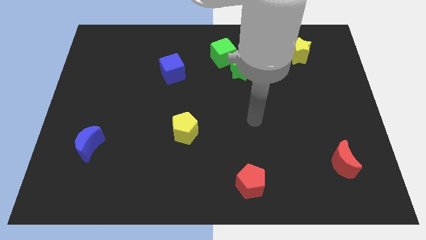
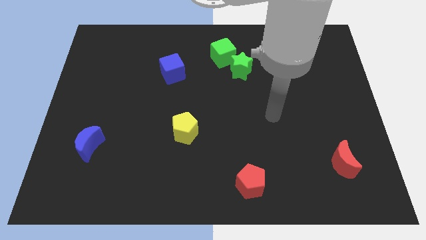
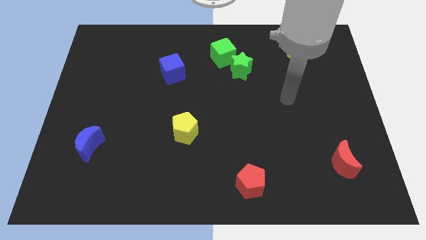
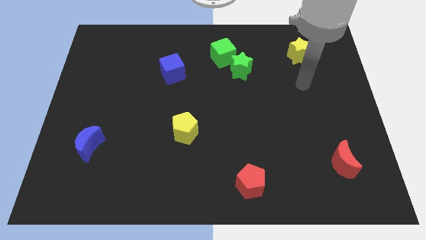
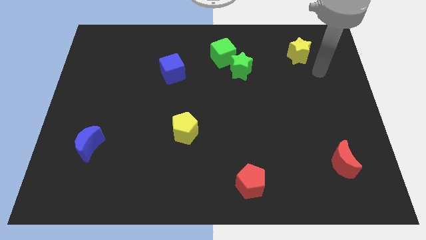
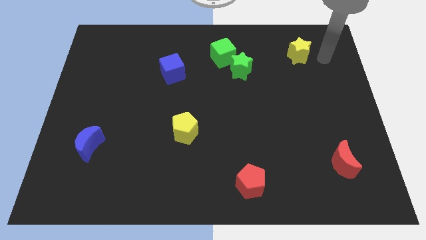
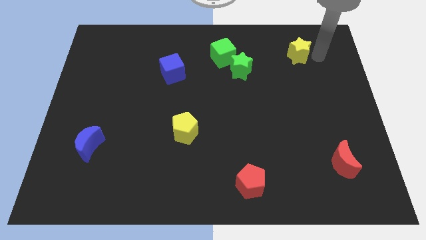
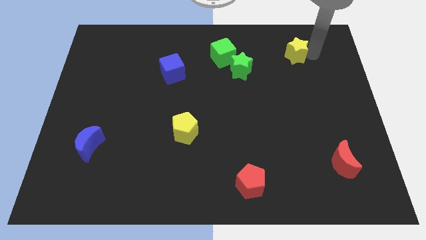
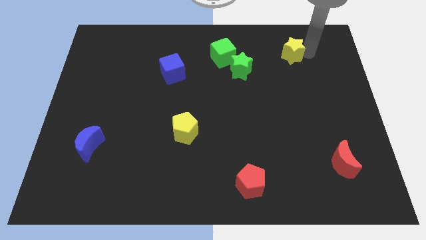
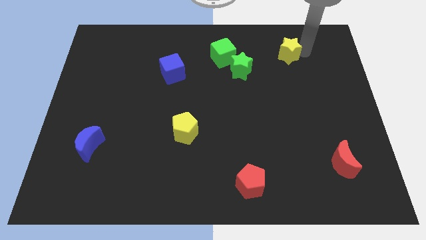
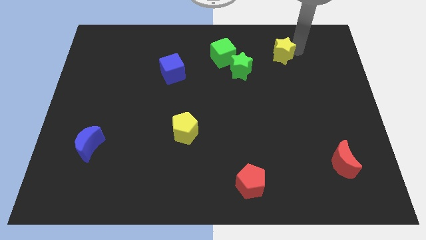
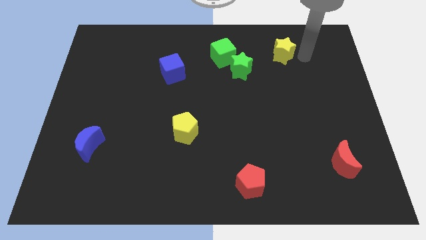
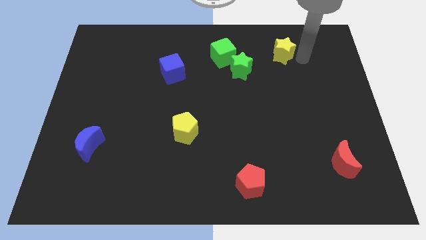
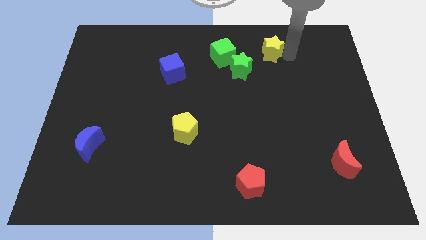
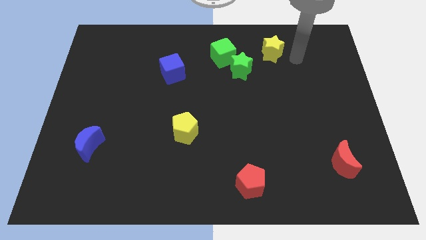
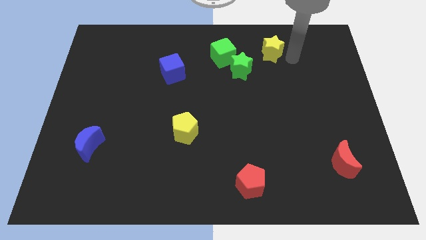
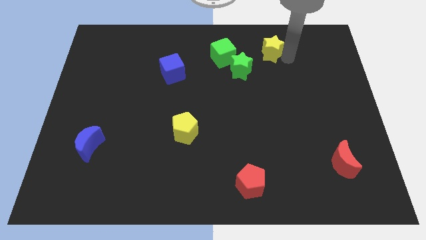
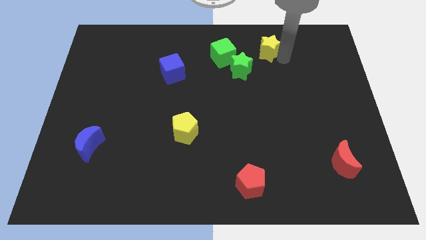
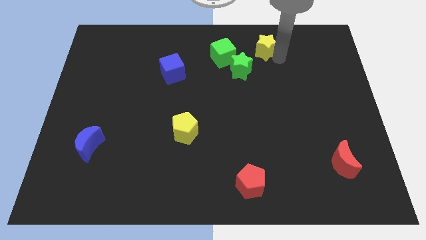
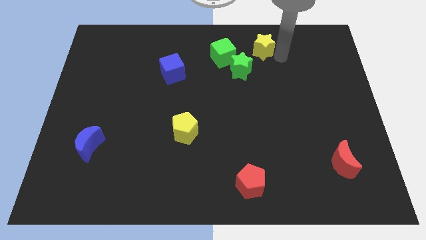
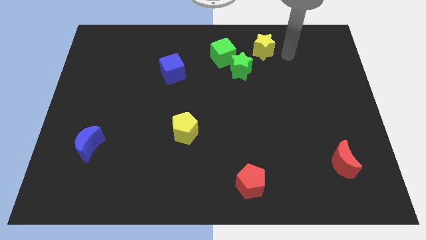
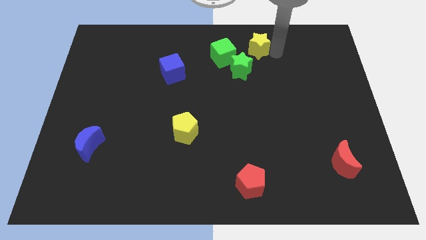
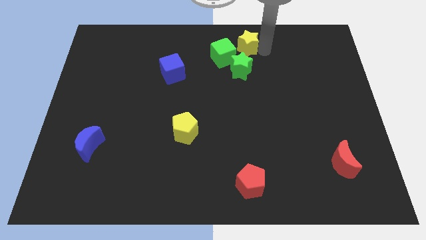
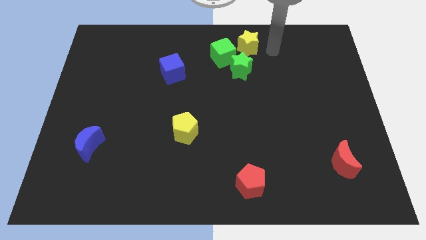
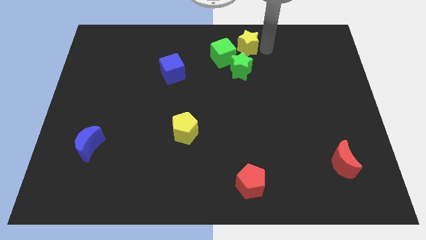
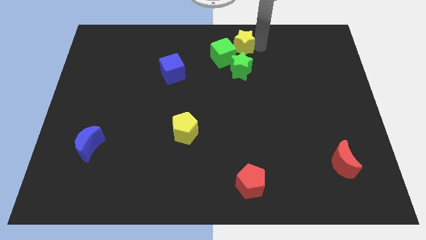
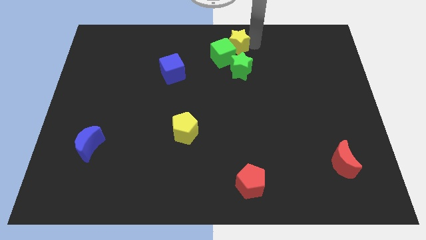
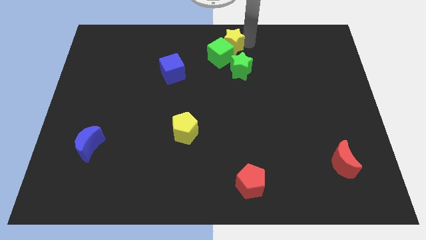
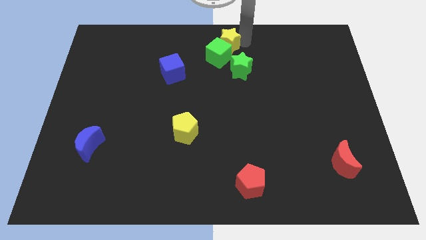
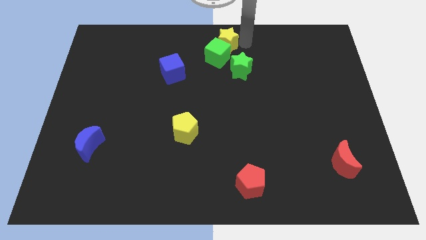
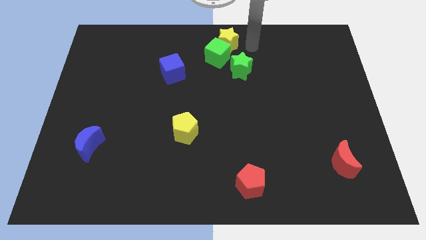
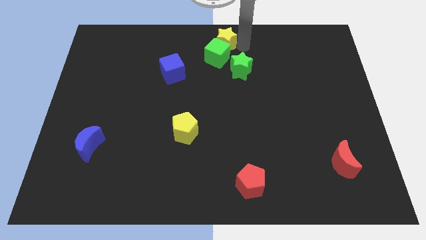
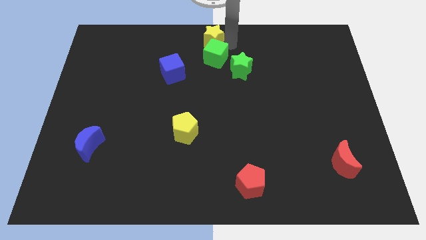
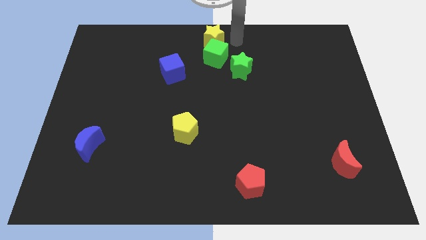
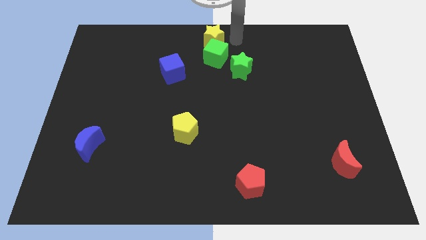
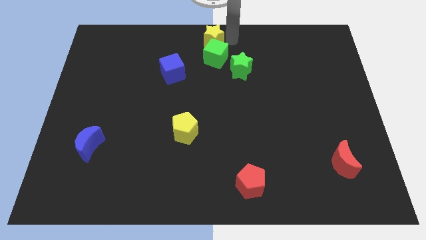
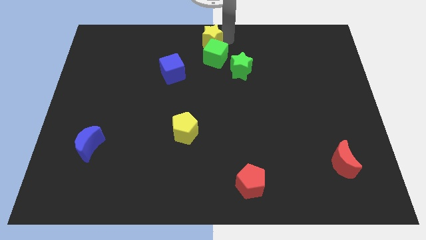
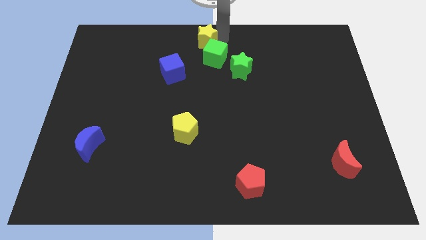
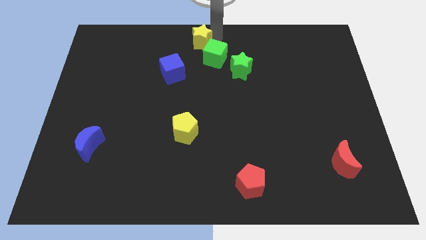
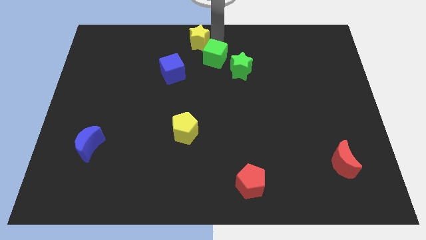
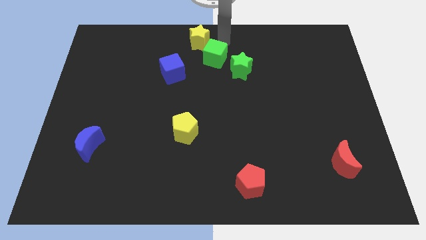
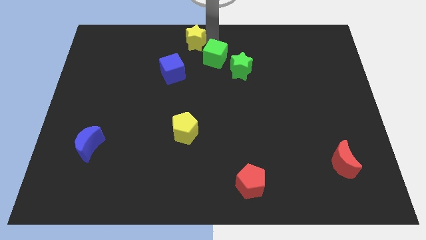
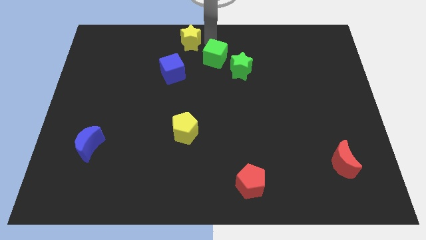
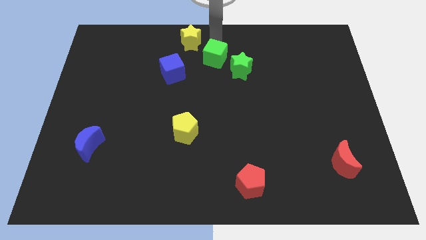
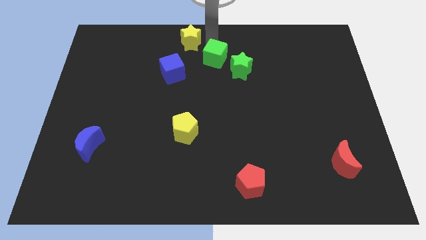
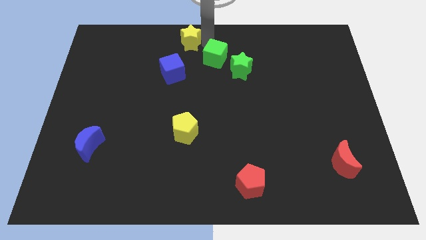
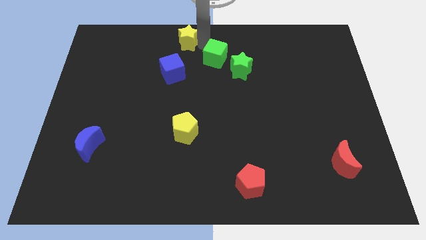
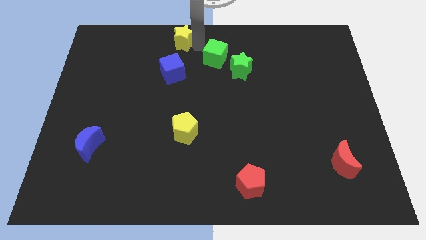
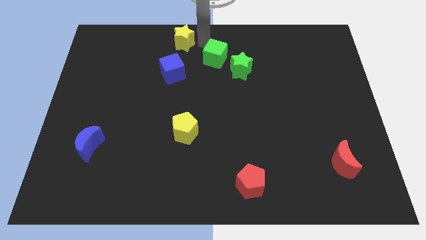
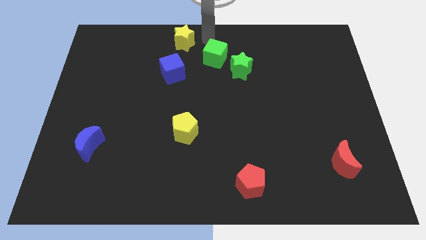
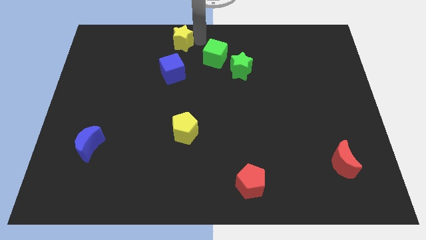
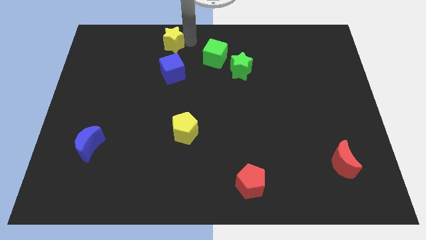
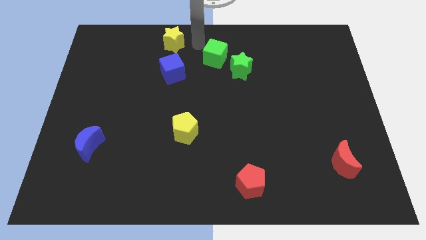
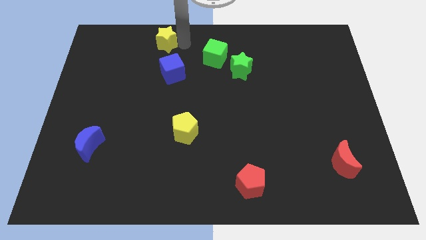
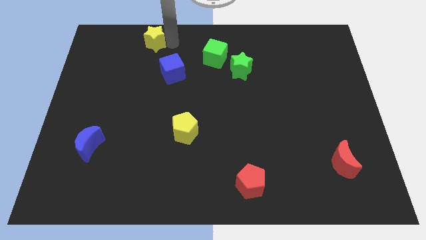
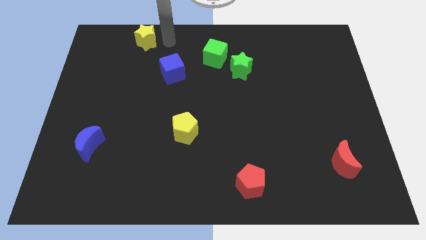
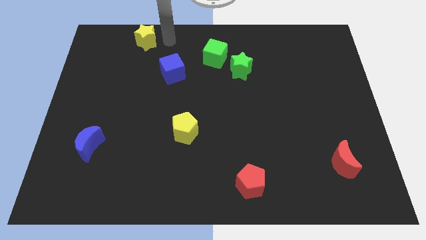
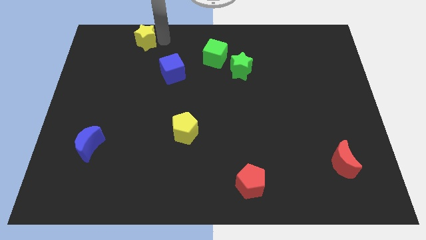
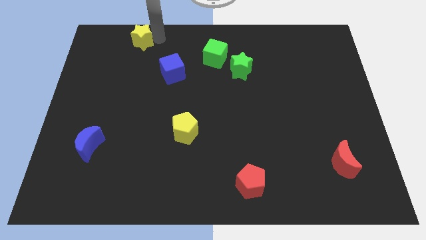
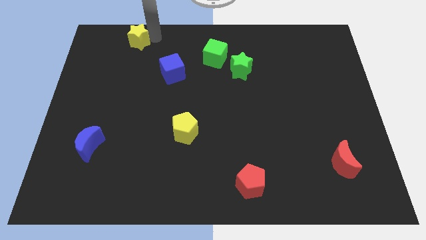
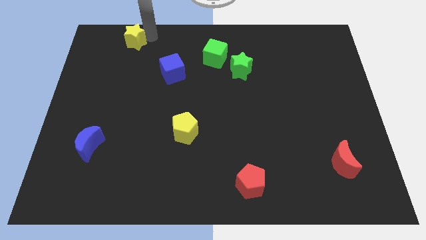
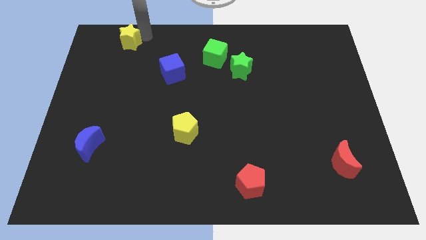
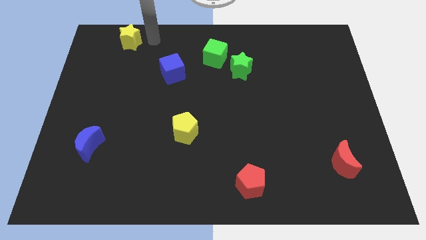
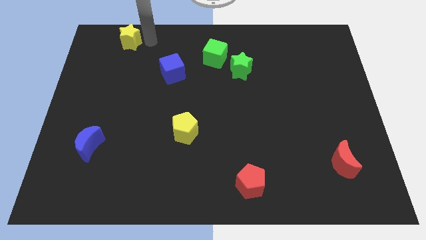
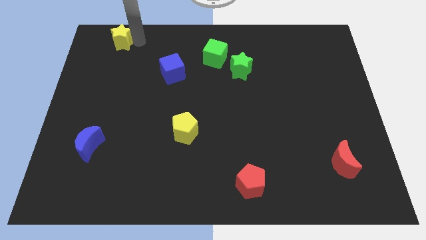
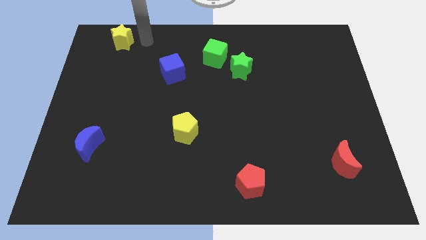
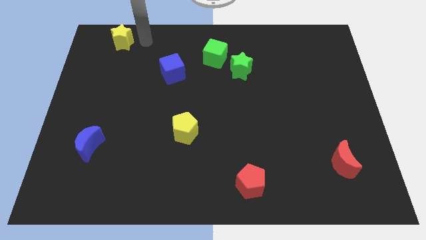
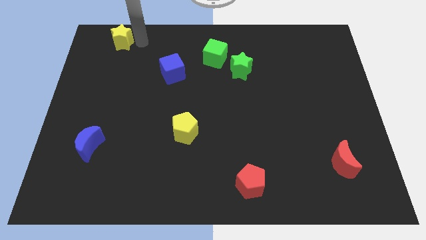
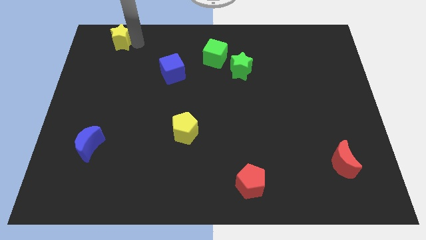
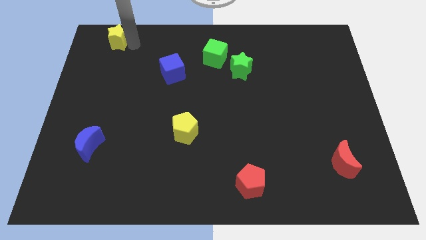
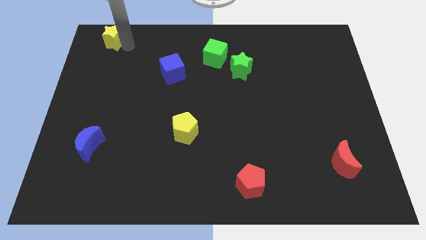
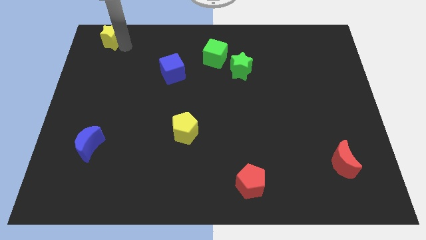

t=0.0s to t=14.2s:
push the yellow star to the upper left corner
